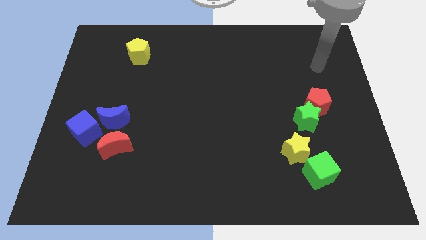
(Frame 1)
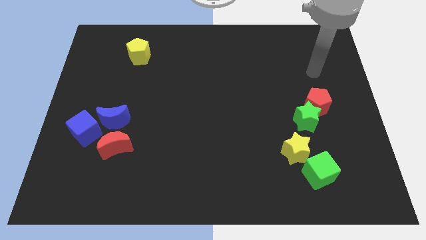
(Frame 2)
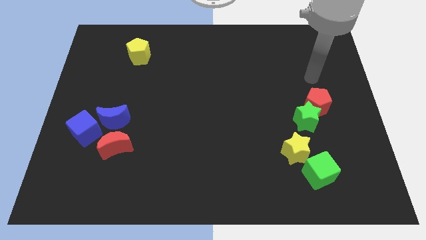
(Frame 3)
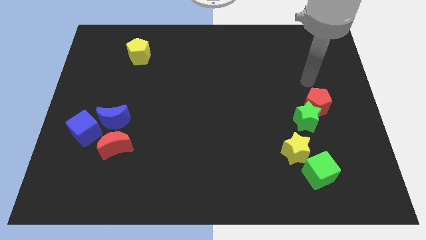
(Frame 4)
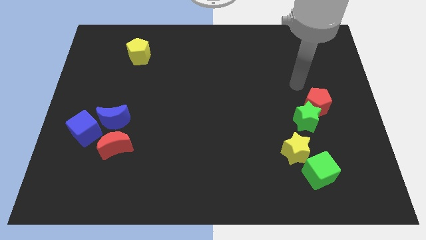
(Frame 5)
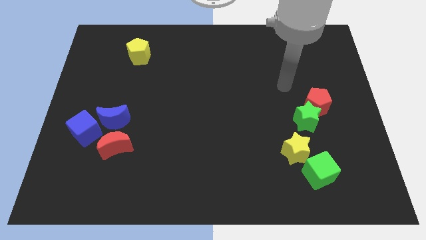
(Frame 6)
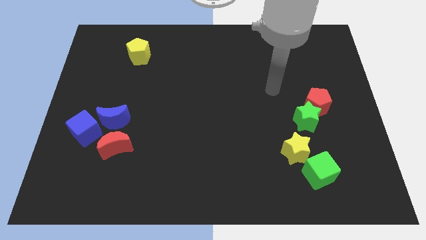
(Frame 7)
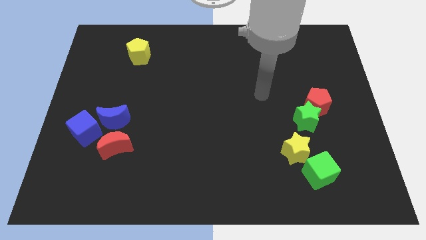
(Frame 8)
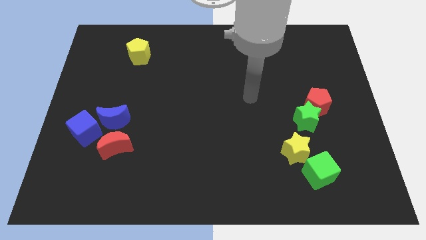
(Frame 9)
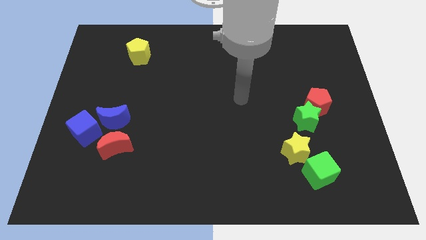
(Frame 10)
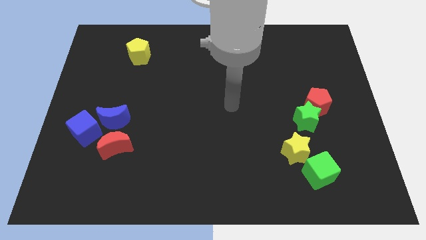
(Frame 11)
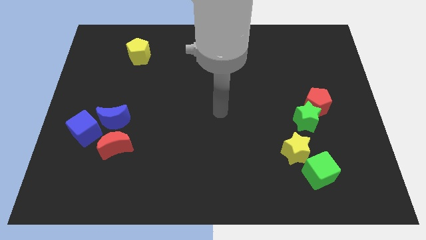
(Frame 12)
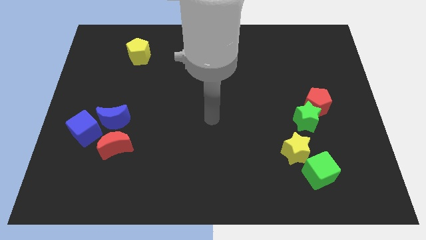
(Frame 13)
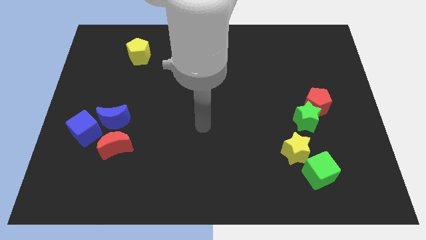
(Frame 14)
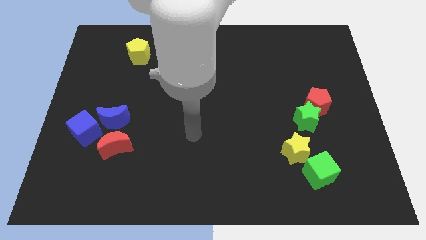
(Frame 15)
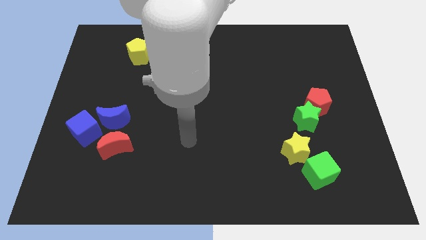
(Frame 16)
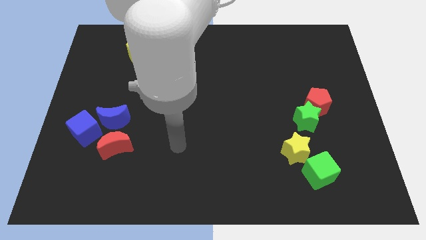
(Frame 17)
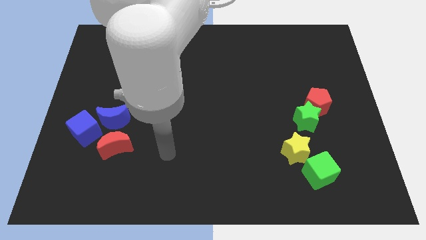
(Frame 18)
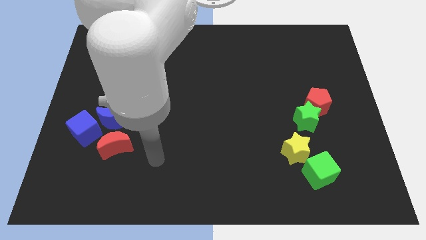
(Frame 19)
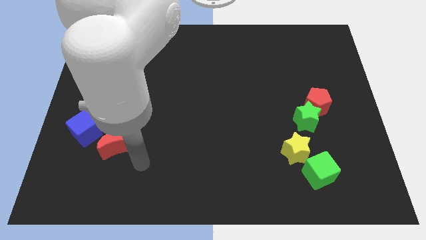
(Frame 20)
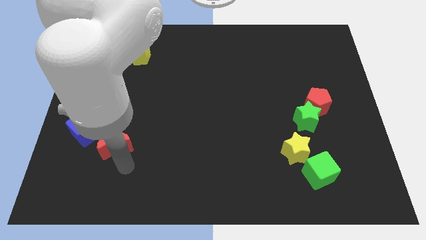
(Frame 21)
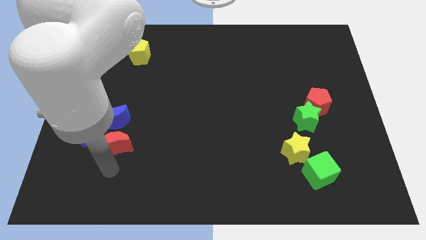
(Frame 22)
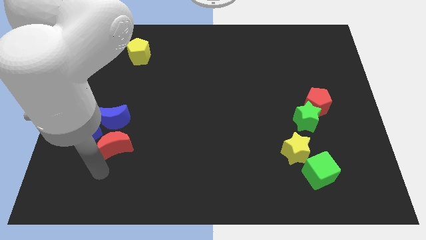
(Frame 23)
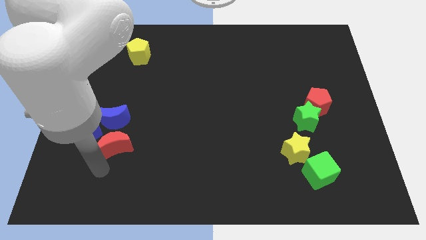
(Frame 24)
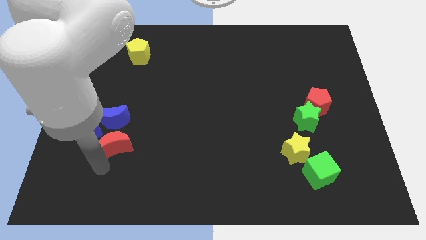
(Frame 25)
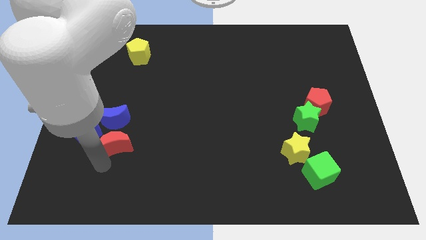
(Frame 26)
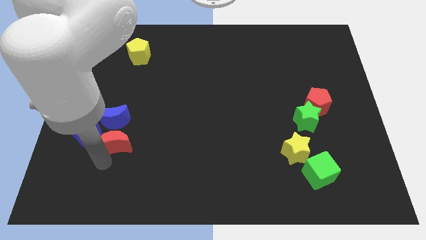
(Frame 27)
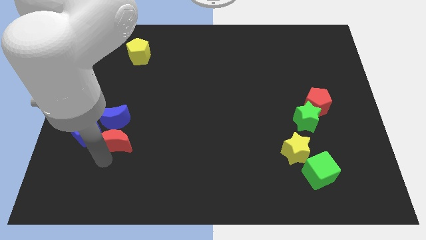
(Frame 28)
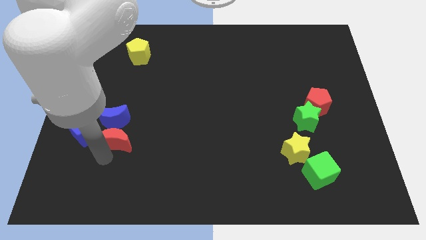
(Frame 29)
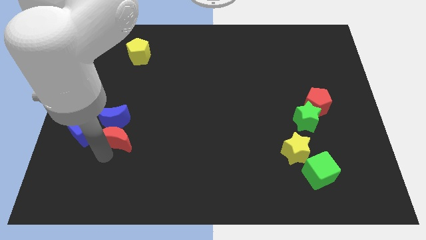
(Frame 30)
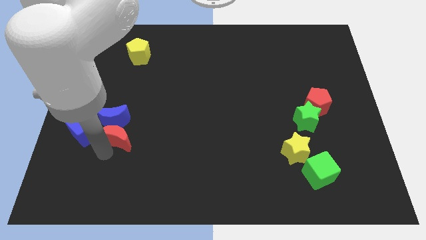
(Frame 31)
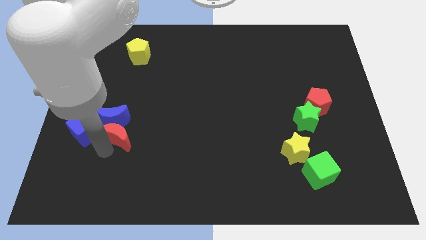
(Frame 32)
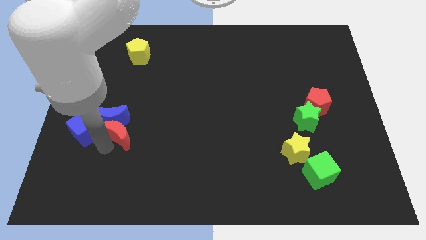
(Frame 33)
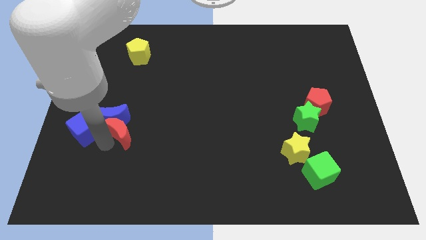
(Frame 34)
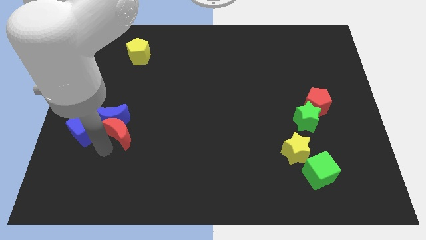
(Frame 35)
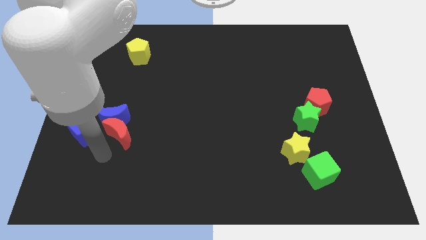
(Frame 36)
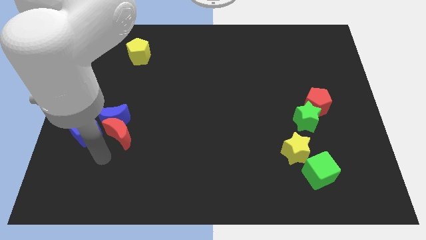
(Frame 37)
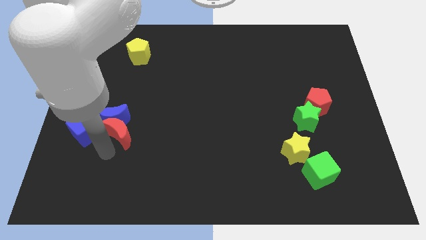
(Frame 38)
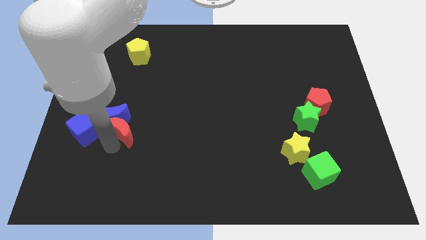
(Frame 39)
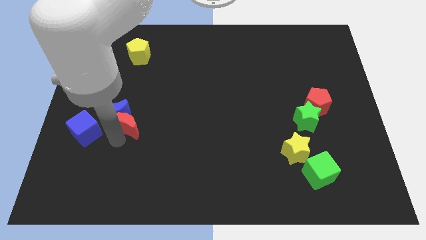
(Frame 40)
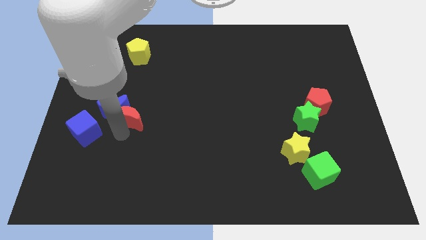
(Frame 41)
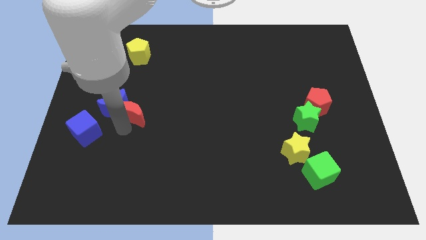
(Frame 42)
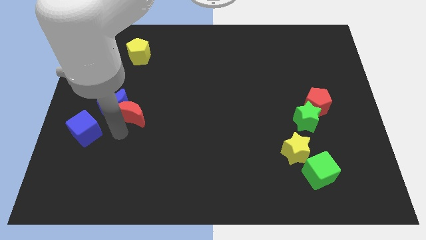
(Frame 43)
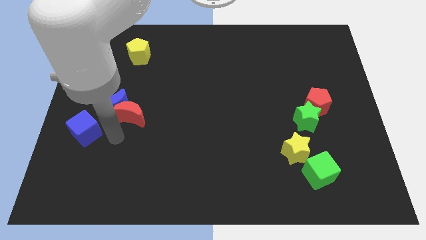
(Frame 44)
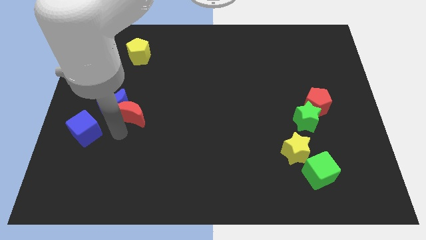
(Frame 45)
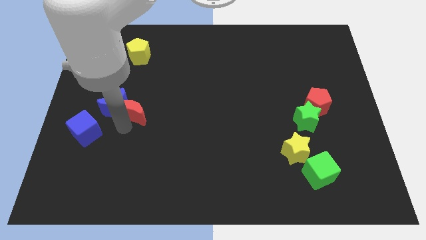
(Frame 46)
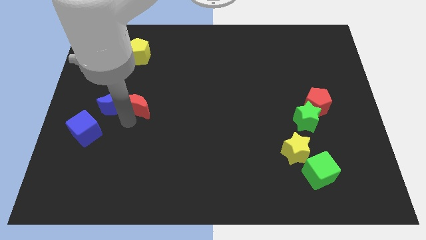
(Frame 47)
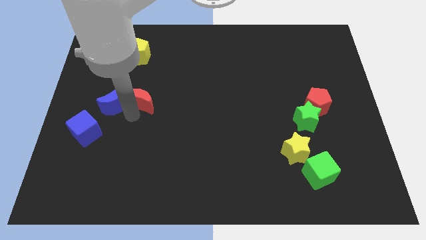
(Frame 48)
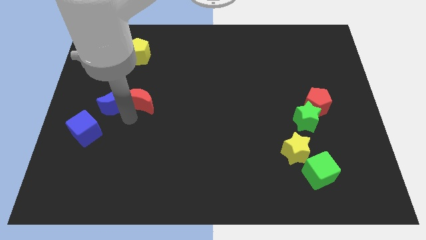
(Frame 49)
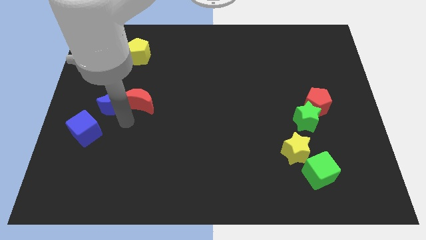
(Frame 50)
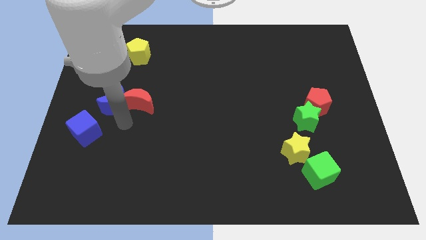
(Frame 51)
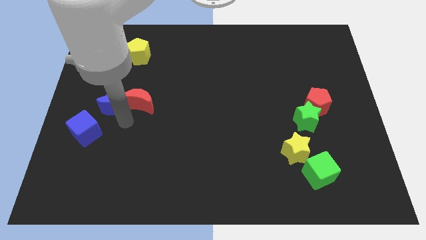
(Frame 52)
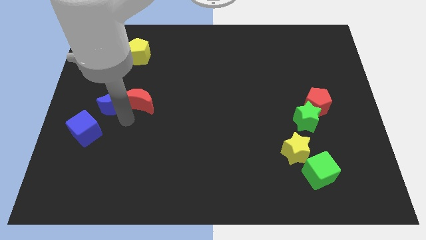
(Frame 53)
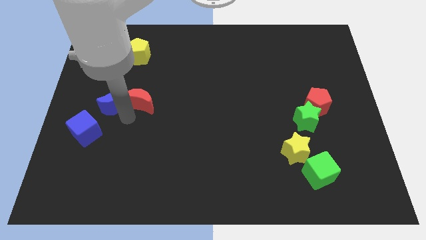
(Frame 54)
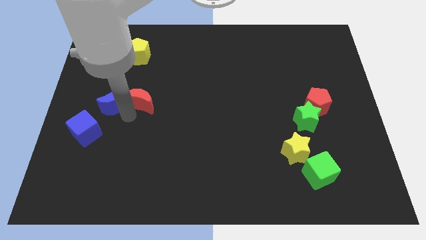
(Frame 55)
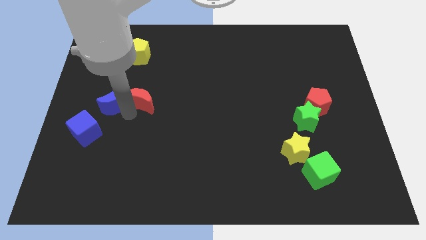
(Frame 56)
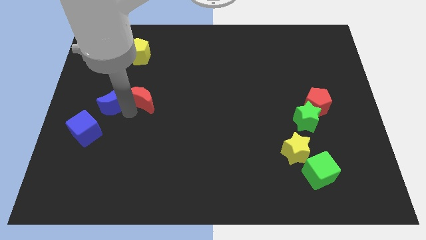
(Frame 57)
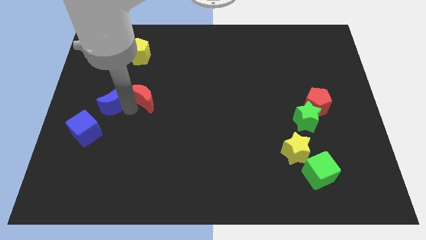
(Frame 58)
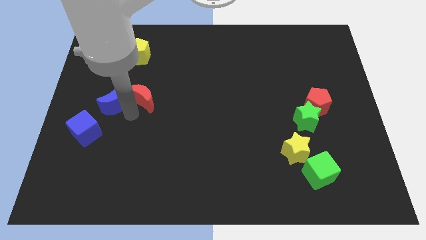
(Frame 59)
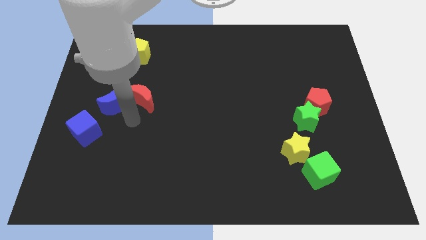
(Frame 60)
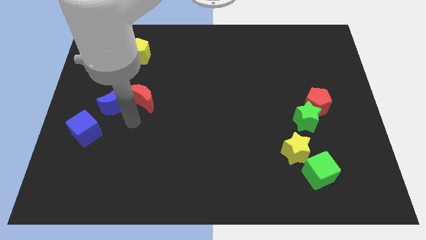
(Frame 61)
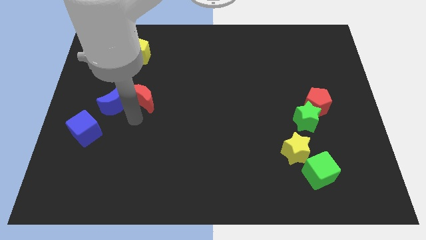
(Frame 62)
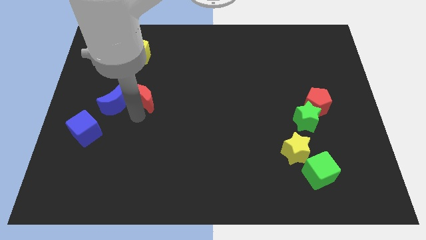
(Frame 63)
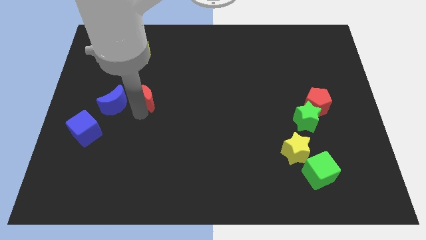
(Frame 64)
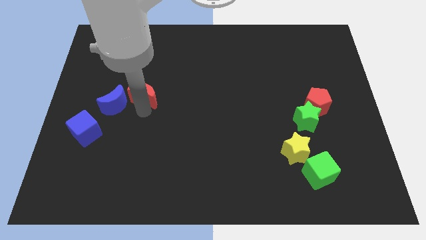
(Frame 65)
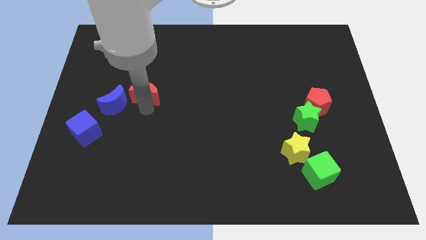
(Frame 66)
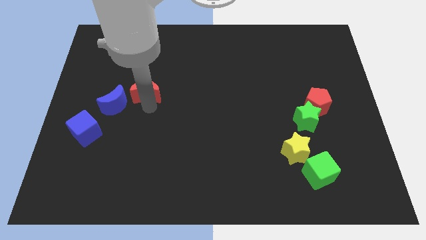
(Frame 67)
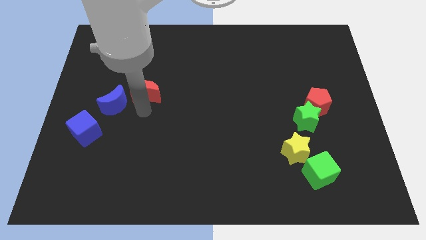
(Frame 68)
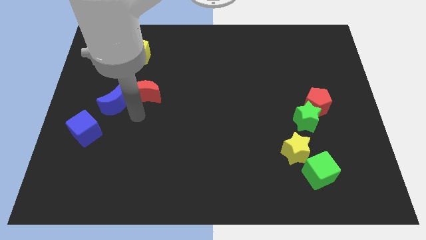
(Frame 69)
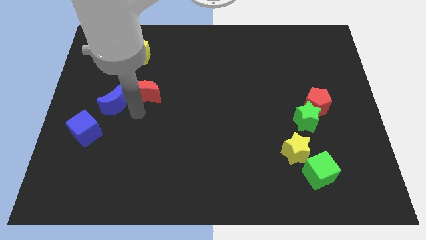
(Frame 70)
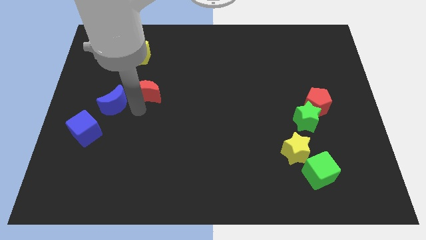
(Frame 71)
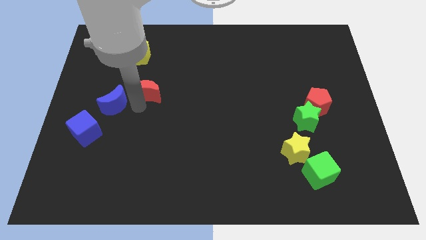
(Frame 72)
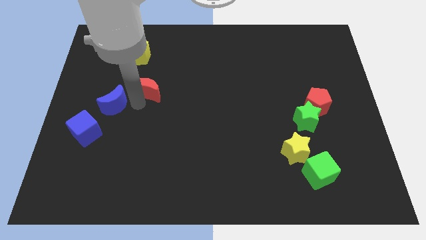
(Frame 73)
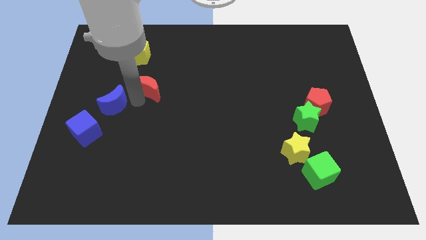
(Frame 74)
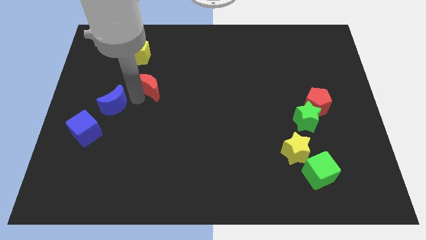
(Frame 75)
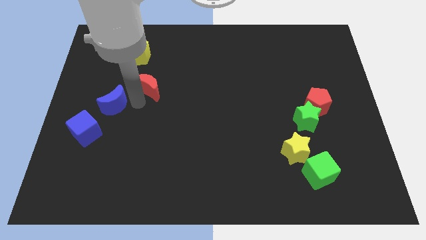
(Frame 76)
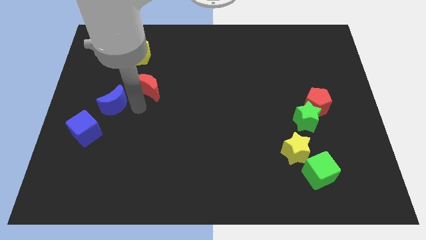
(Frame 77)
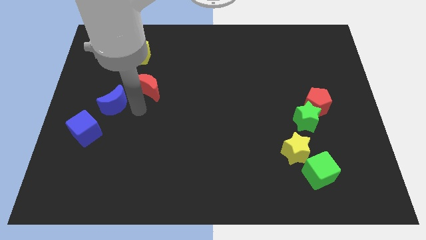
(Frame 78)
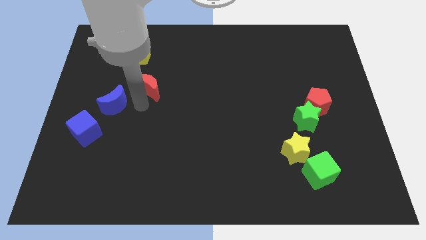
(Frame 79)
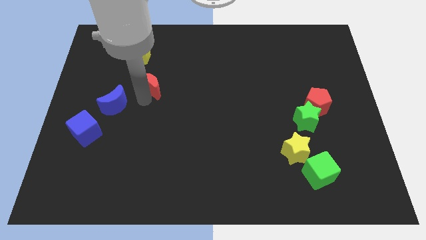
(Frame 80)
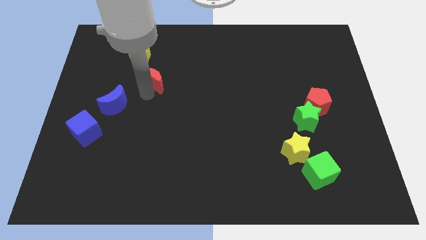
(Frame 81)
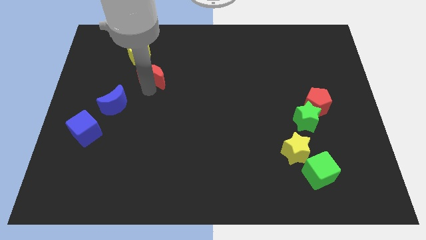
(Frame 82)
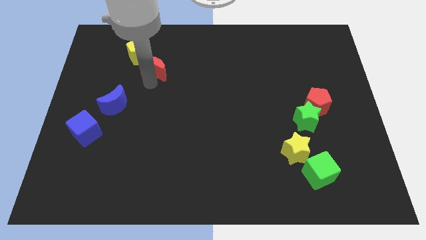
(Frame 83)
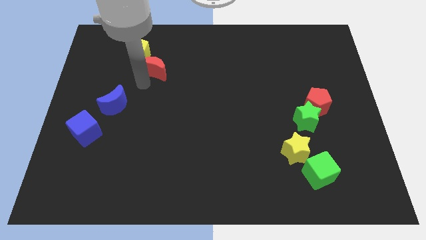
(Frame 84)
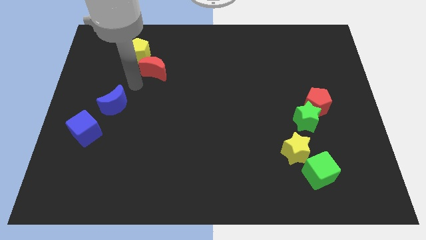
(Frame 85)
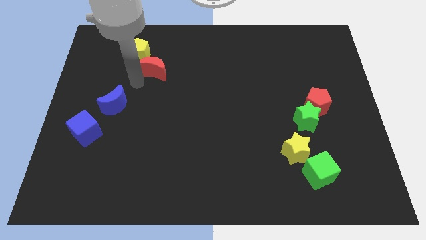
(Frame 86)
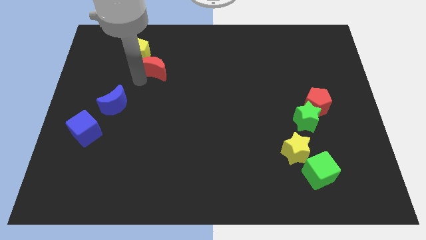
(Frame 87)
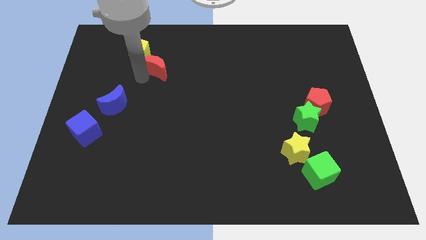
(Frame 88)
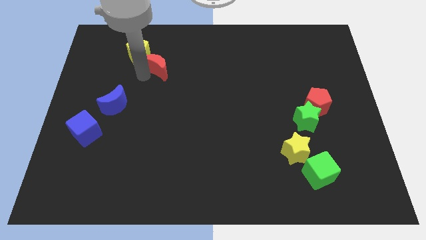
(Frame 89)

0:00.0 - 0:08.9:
push the red moon right of the yellow pentagon
